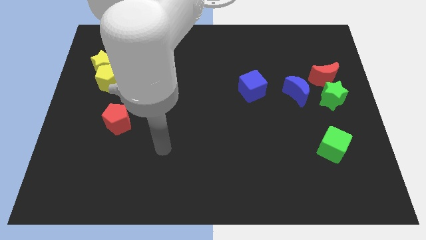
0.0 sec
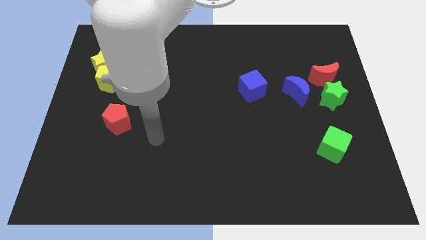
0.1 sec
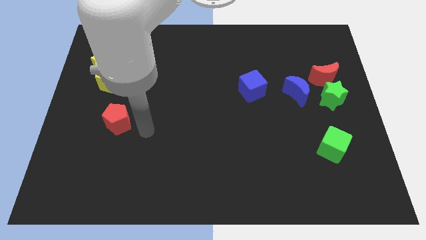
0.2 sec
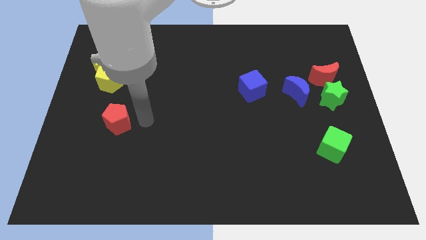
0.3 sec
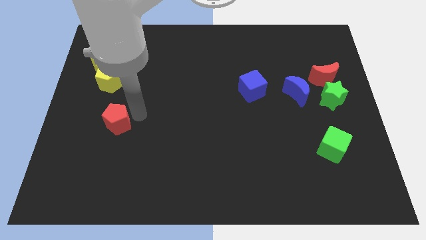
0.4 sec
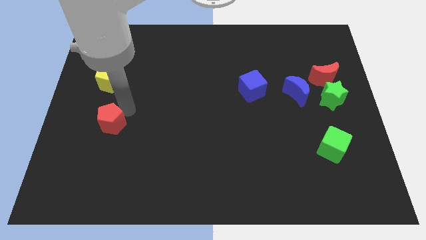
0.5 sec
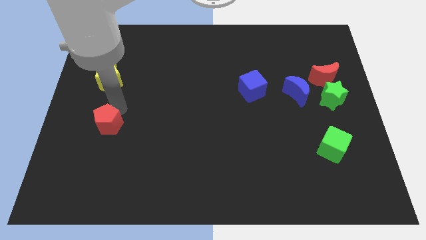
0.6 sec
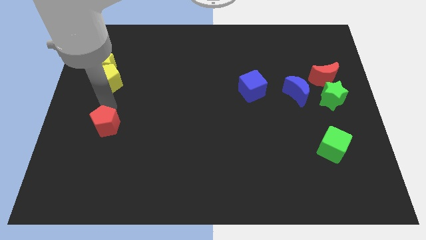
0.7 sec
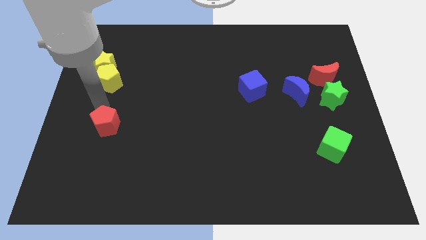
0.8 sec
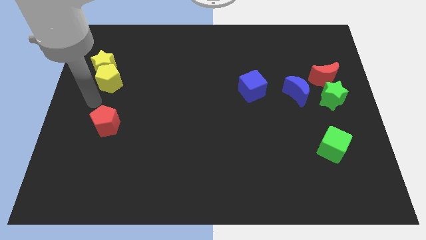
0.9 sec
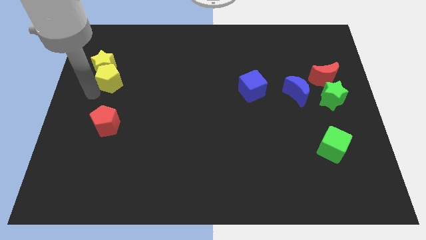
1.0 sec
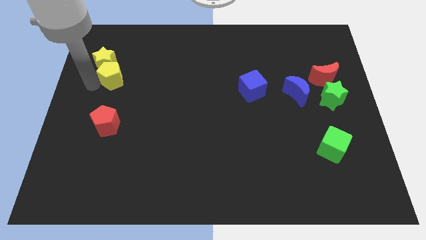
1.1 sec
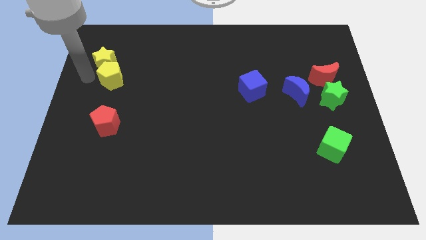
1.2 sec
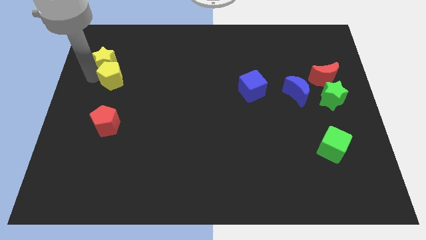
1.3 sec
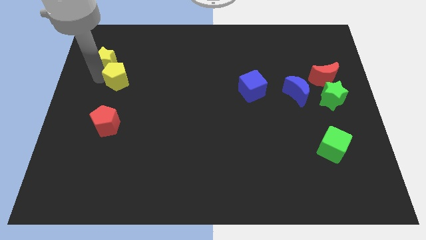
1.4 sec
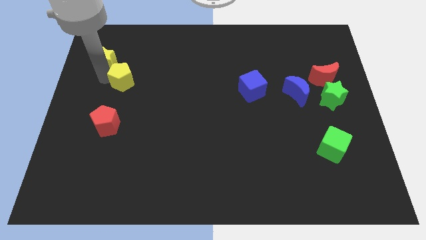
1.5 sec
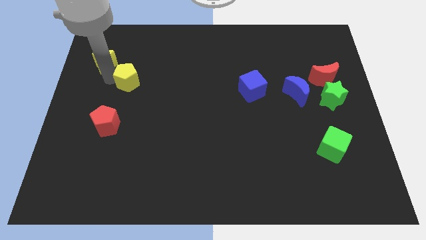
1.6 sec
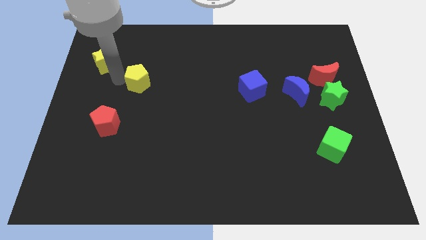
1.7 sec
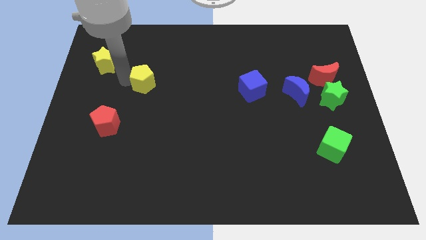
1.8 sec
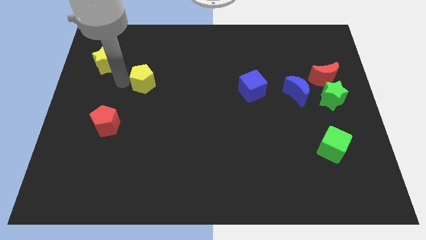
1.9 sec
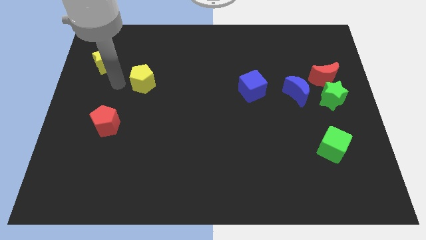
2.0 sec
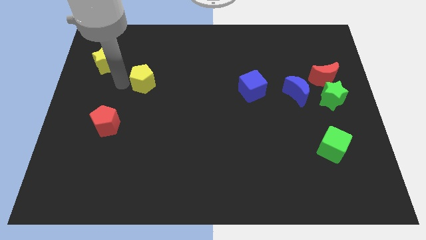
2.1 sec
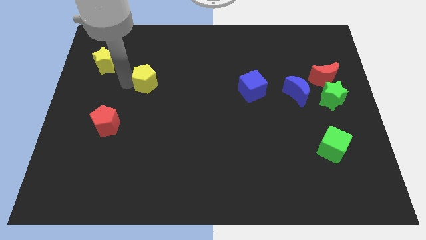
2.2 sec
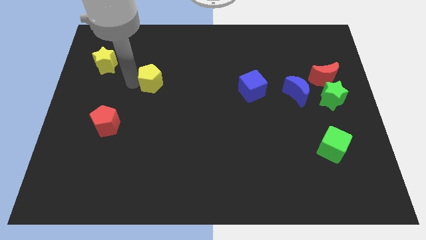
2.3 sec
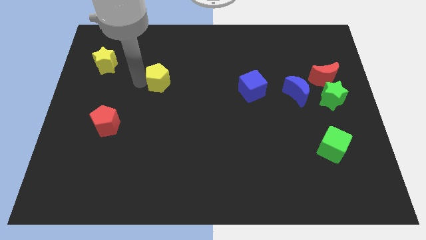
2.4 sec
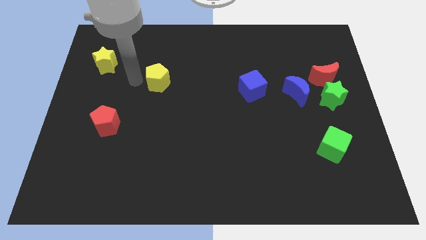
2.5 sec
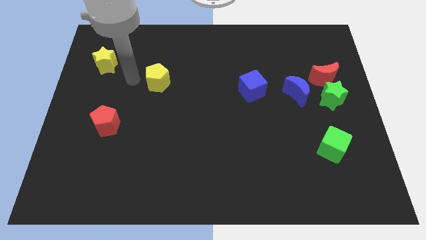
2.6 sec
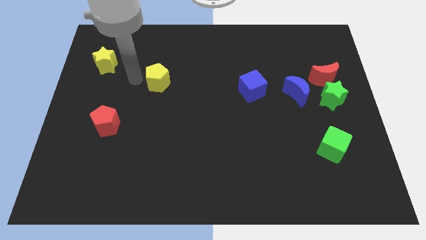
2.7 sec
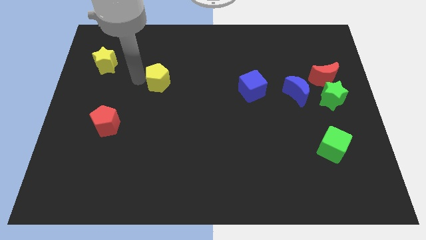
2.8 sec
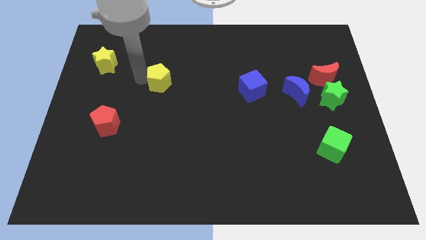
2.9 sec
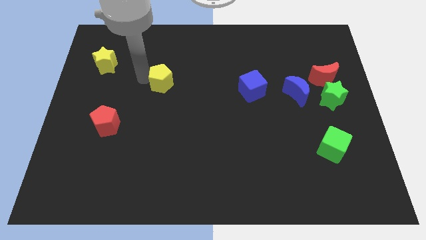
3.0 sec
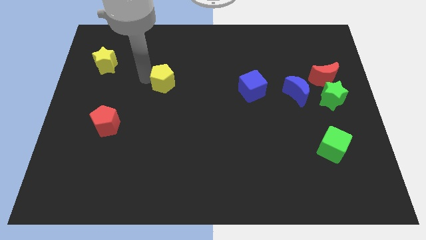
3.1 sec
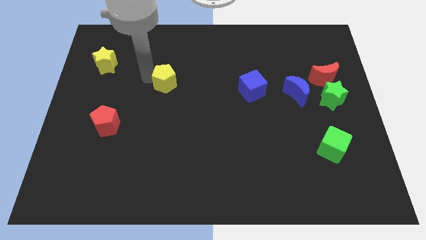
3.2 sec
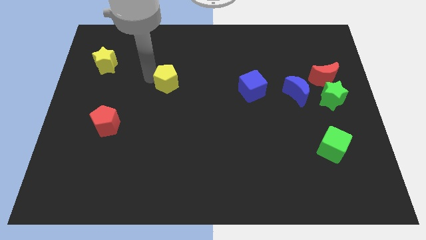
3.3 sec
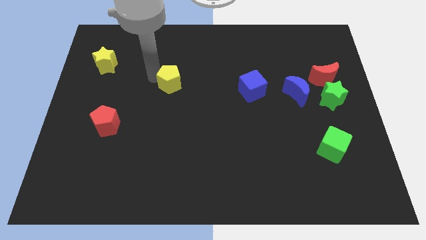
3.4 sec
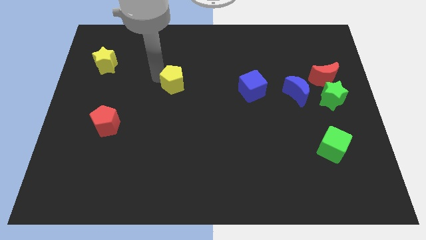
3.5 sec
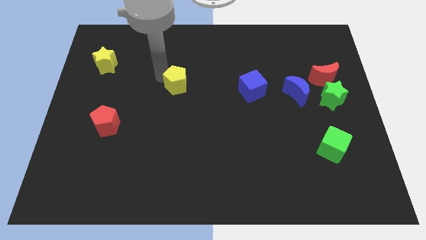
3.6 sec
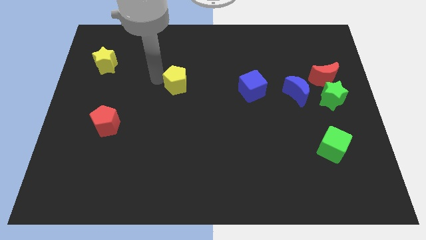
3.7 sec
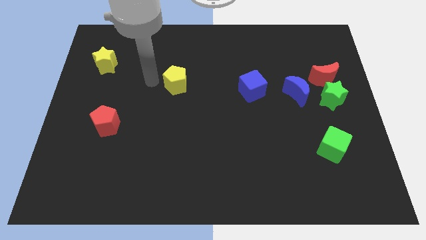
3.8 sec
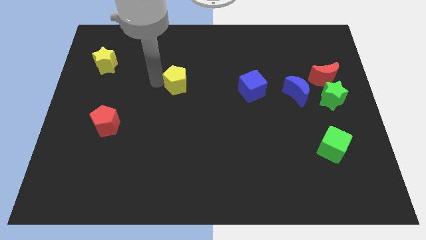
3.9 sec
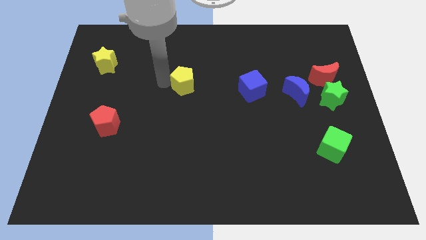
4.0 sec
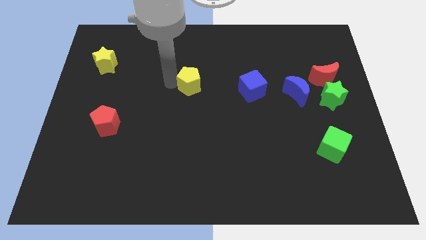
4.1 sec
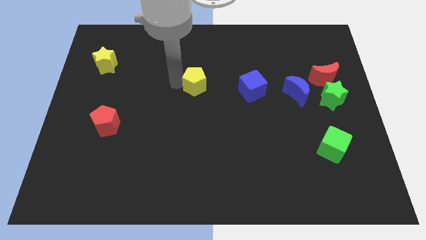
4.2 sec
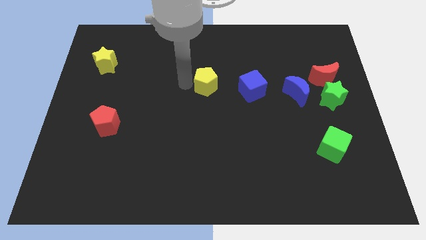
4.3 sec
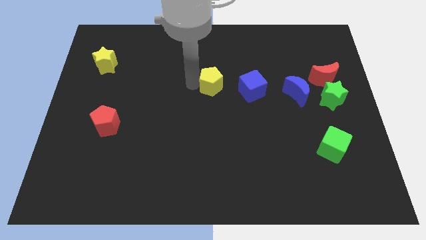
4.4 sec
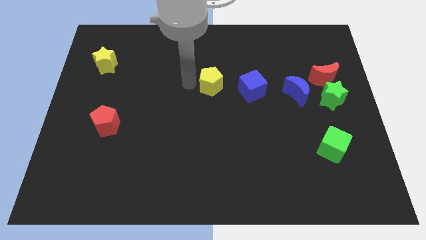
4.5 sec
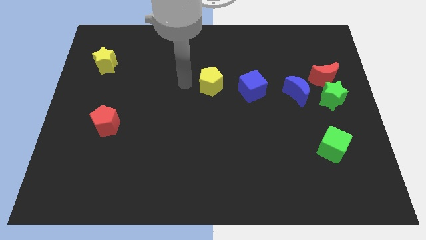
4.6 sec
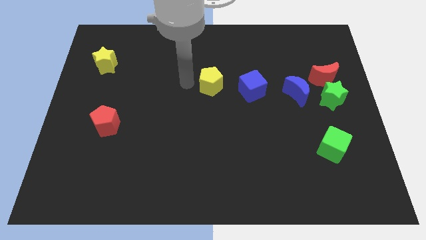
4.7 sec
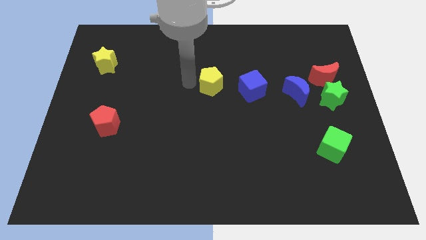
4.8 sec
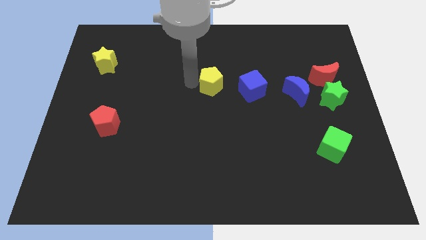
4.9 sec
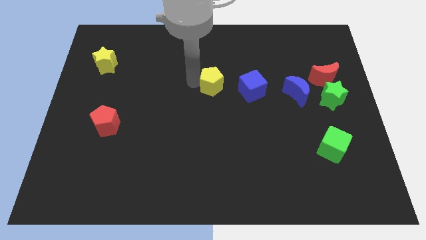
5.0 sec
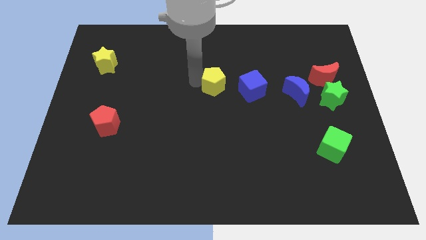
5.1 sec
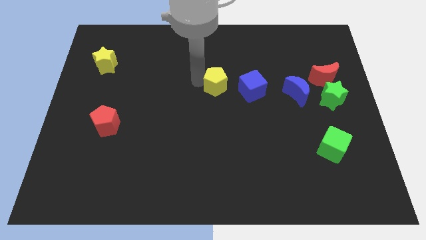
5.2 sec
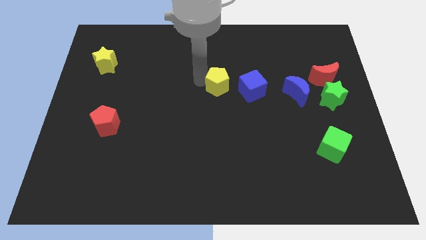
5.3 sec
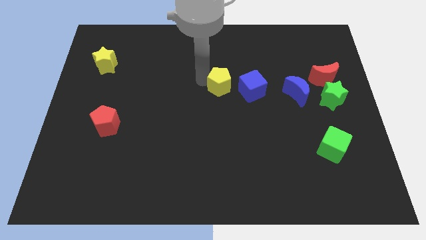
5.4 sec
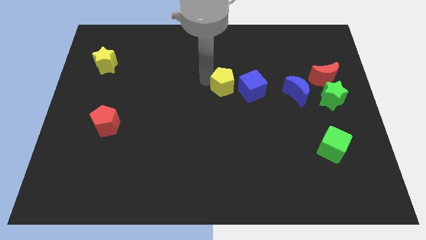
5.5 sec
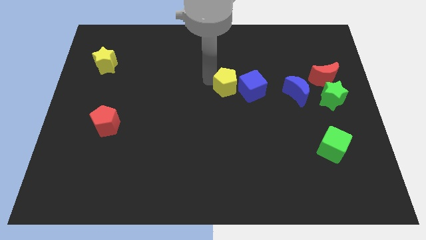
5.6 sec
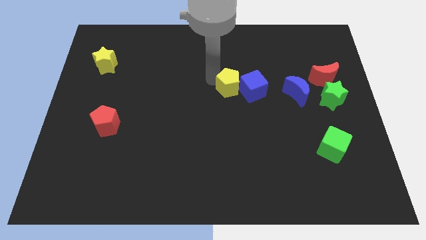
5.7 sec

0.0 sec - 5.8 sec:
put the yellow pentagon towards the blue cube

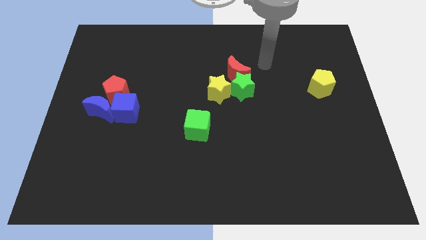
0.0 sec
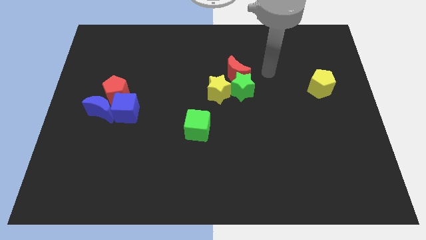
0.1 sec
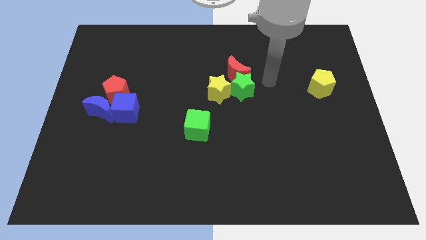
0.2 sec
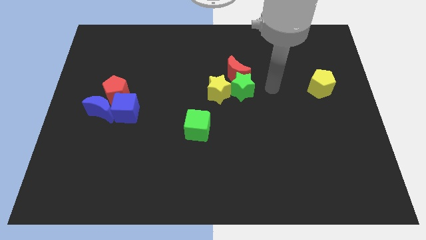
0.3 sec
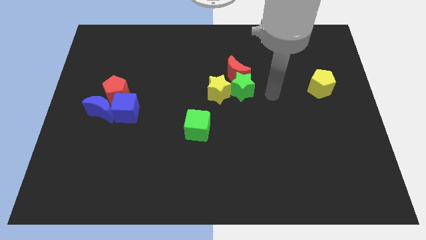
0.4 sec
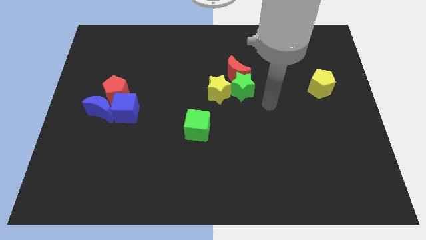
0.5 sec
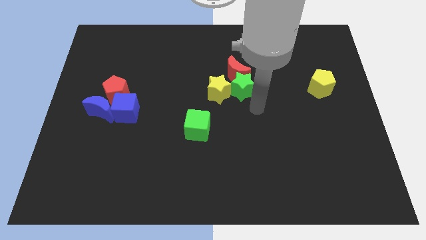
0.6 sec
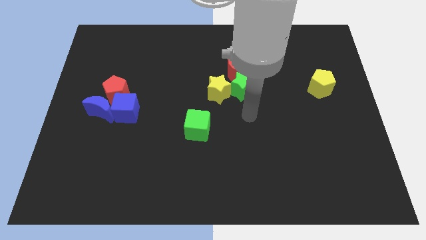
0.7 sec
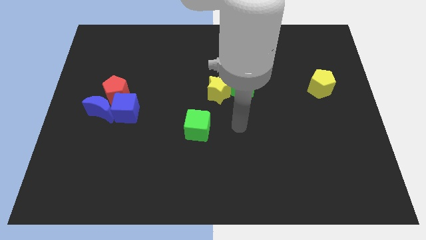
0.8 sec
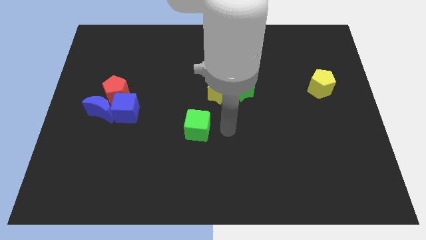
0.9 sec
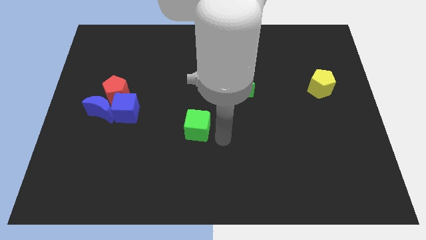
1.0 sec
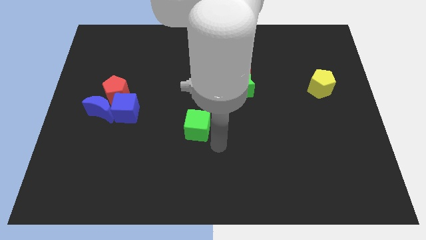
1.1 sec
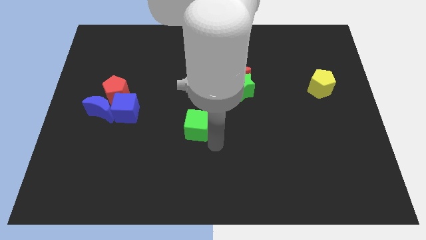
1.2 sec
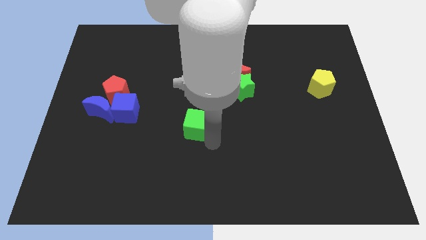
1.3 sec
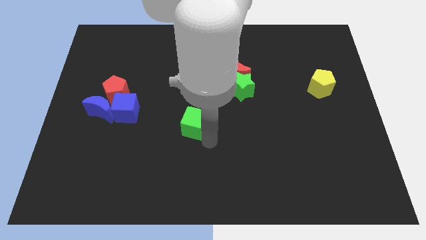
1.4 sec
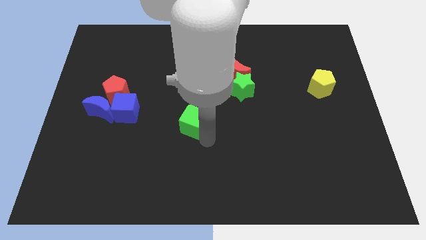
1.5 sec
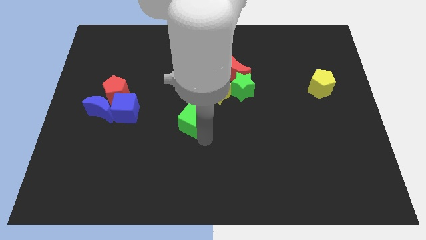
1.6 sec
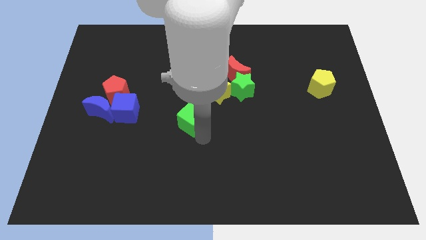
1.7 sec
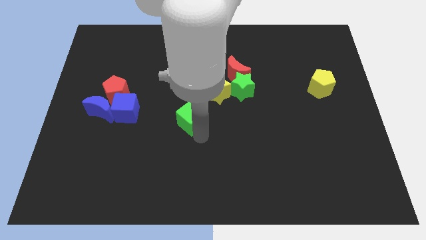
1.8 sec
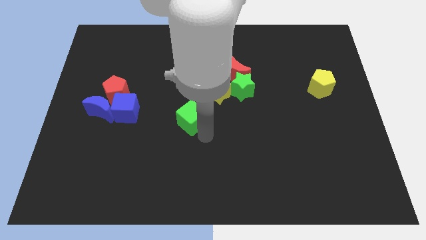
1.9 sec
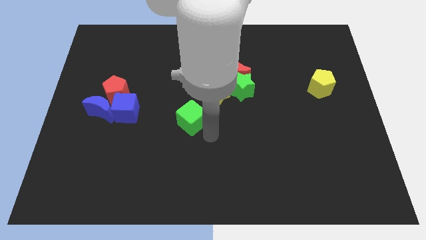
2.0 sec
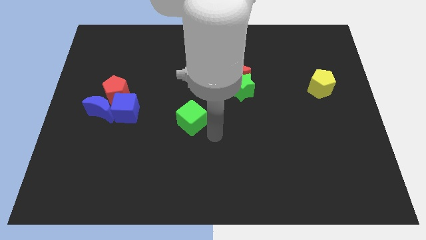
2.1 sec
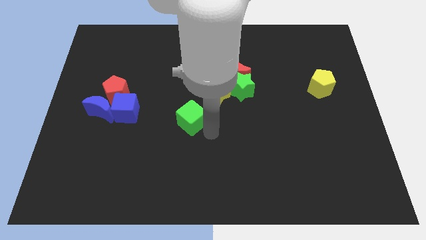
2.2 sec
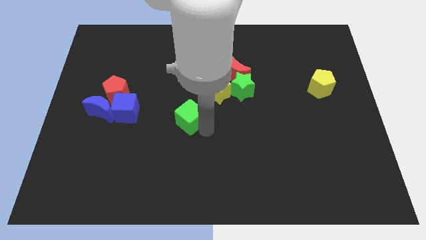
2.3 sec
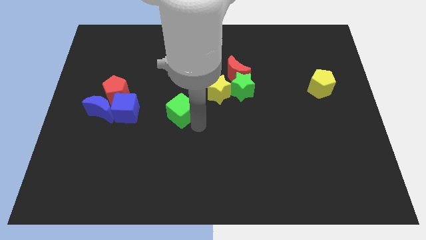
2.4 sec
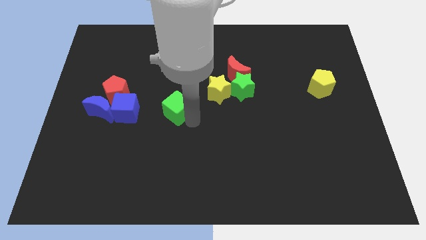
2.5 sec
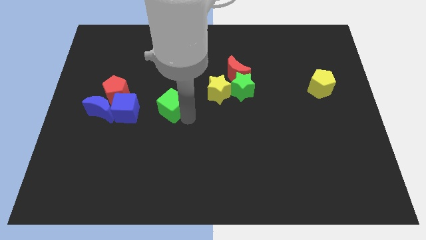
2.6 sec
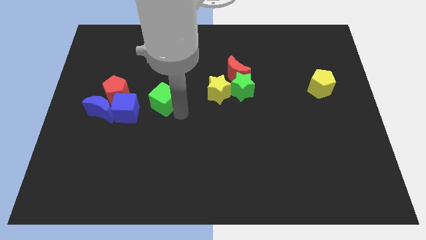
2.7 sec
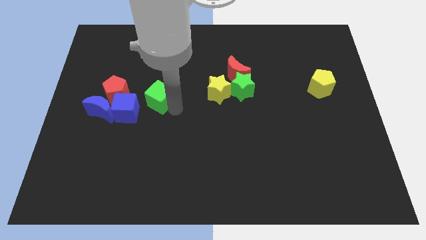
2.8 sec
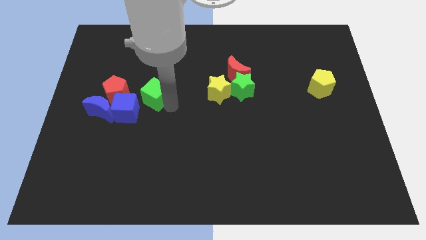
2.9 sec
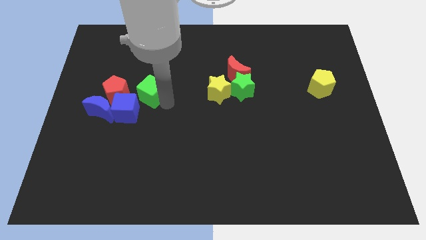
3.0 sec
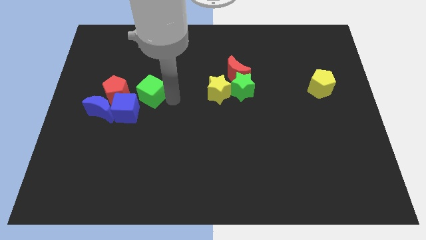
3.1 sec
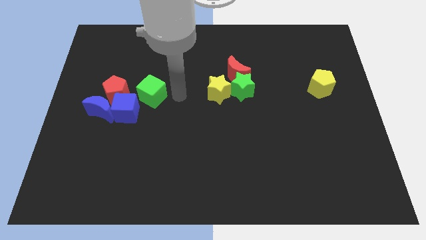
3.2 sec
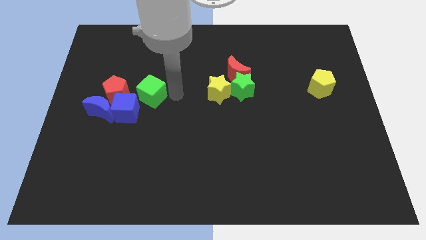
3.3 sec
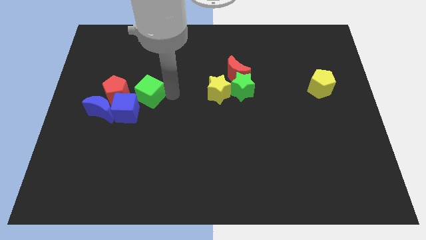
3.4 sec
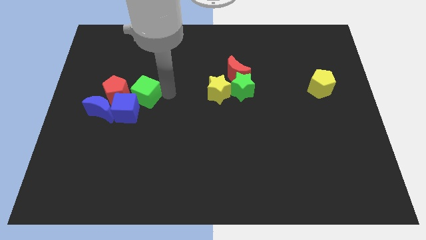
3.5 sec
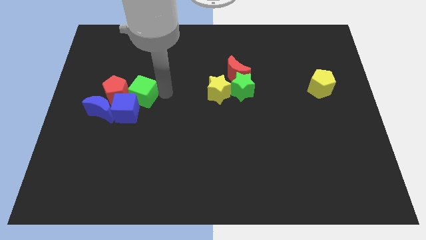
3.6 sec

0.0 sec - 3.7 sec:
slide the green cube to the red pentagon
